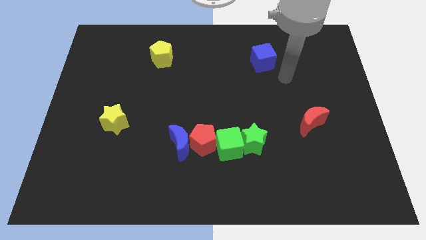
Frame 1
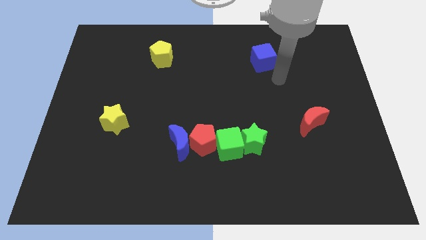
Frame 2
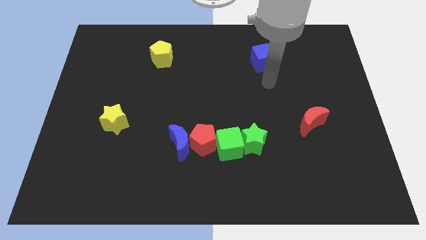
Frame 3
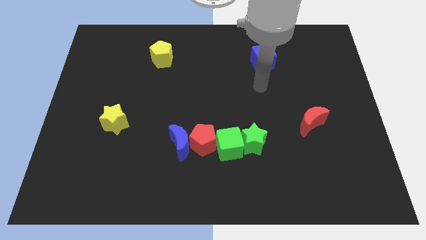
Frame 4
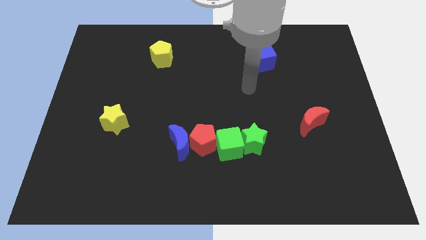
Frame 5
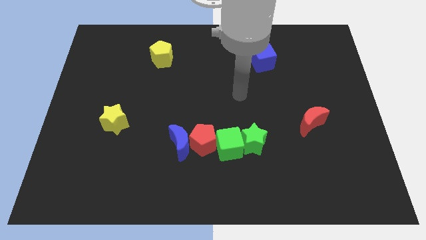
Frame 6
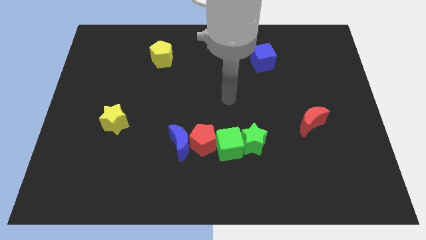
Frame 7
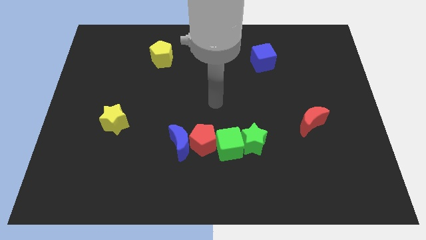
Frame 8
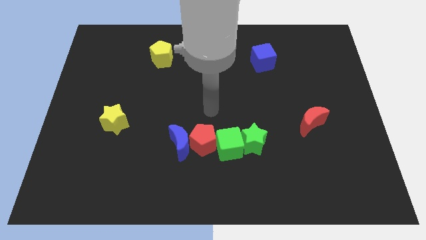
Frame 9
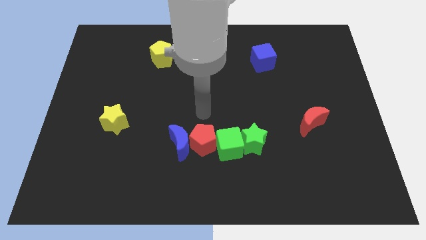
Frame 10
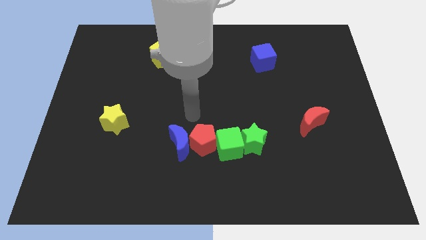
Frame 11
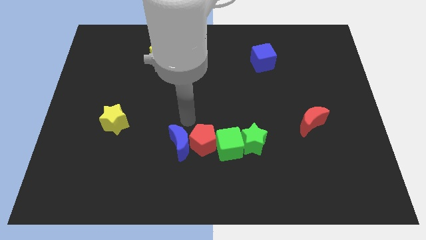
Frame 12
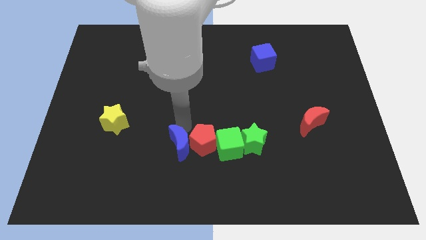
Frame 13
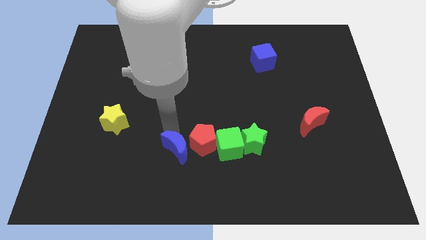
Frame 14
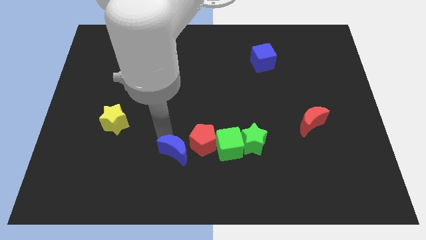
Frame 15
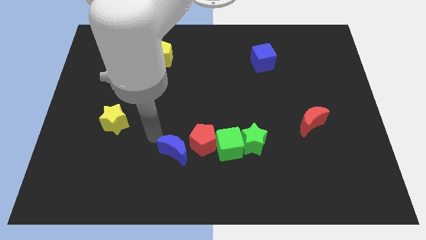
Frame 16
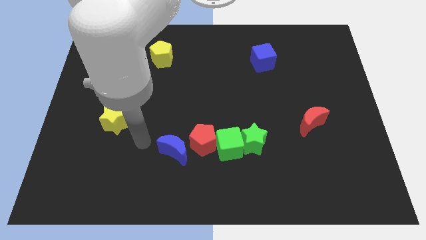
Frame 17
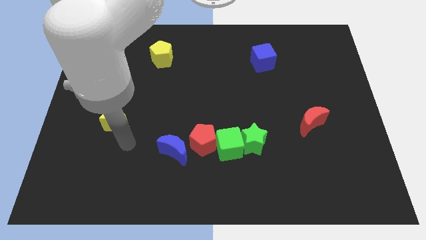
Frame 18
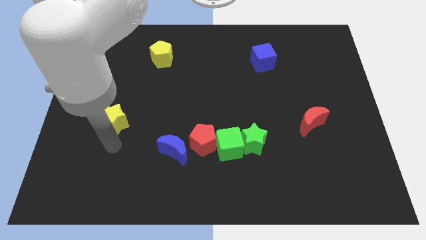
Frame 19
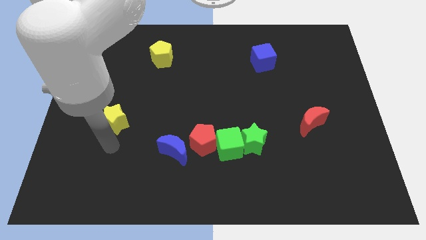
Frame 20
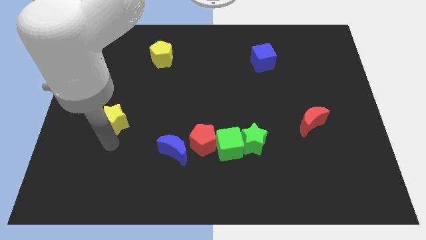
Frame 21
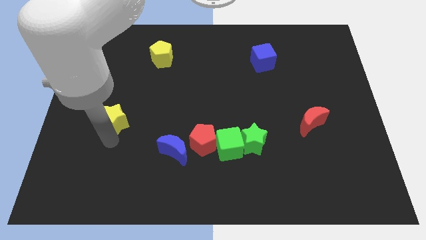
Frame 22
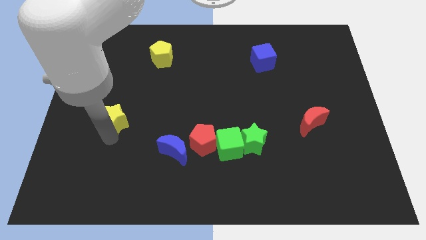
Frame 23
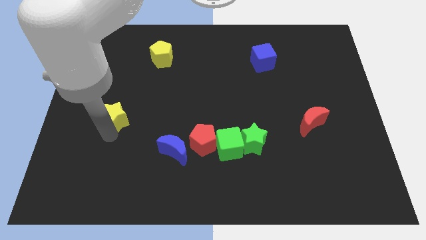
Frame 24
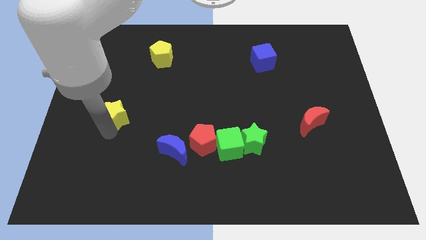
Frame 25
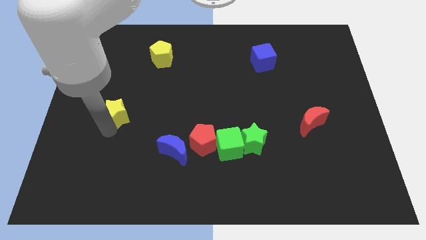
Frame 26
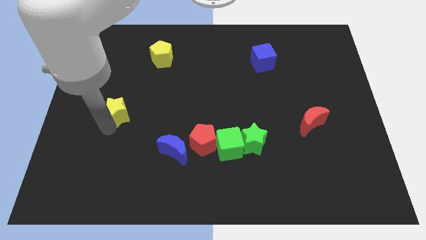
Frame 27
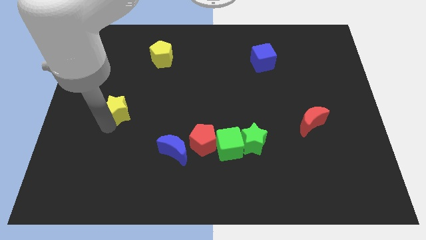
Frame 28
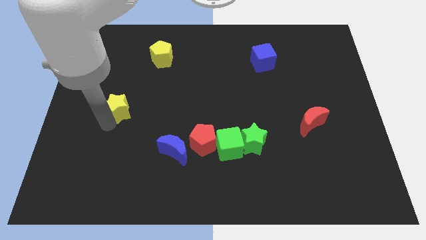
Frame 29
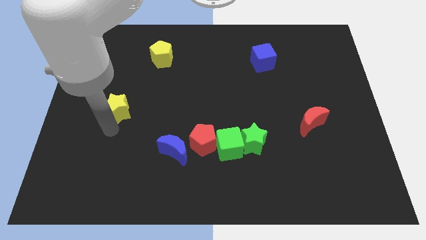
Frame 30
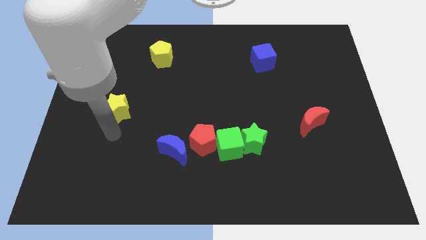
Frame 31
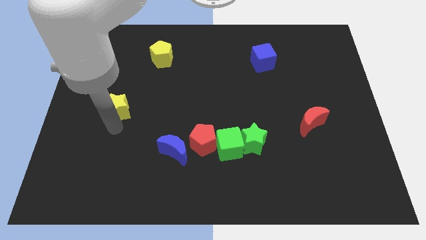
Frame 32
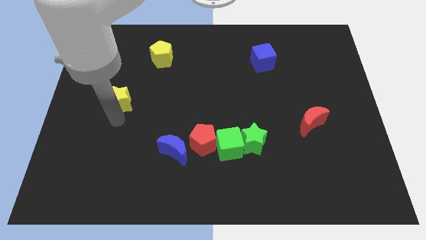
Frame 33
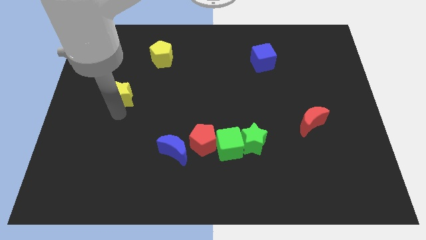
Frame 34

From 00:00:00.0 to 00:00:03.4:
slightly slide the yellow star upwards

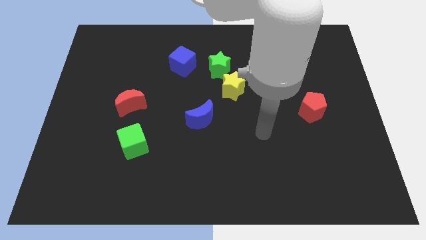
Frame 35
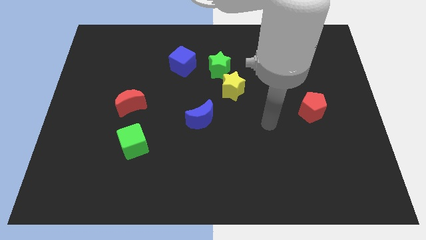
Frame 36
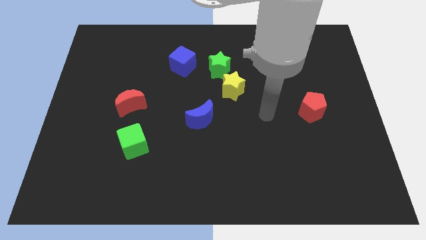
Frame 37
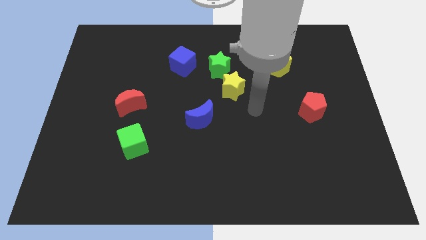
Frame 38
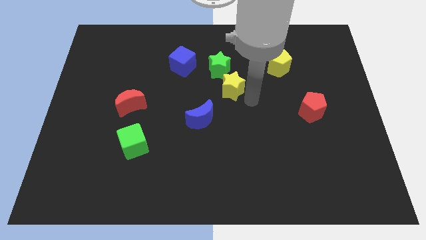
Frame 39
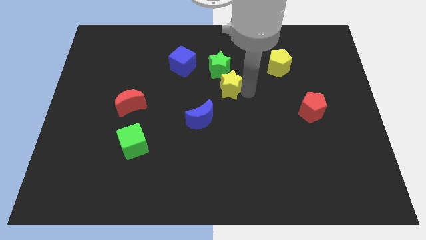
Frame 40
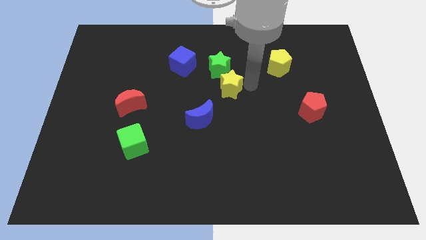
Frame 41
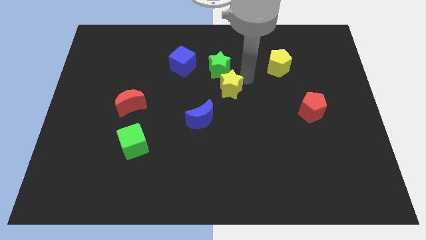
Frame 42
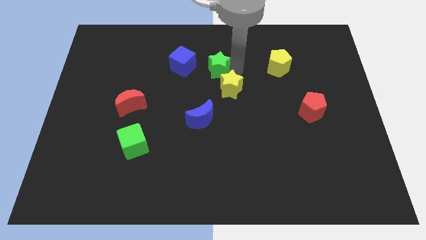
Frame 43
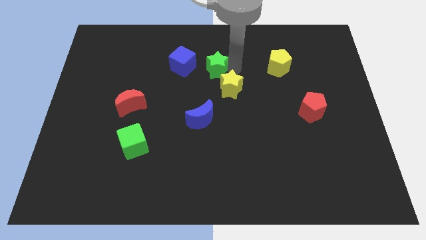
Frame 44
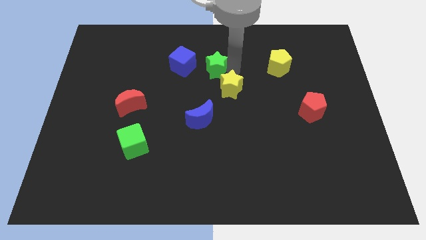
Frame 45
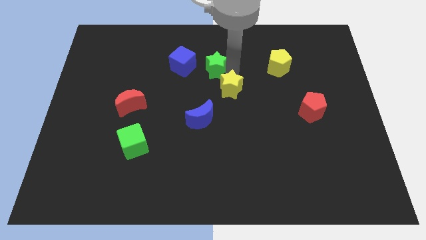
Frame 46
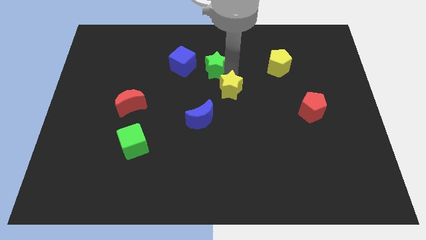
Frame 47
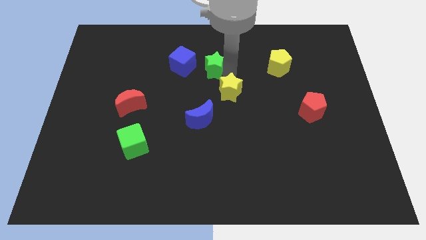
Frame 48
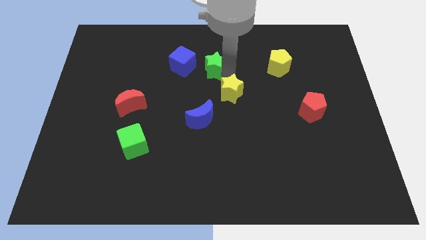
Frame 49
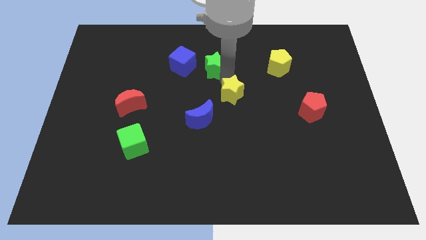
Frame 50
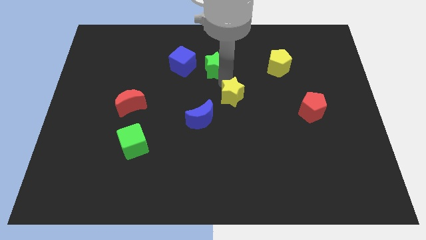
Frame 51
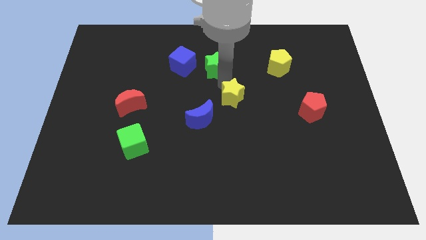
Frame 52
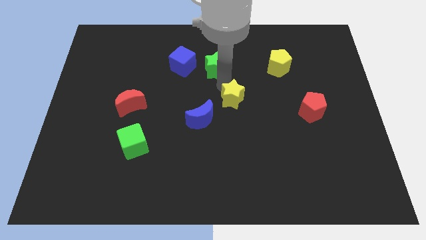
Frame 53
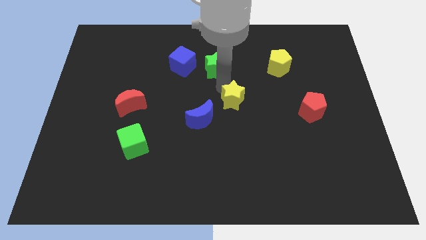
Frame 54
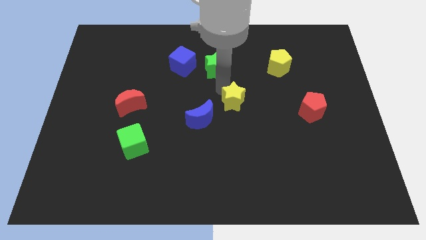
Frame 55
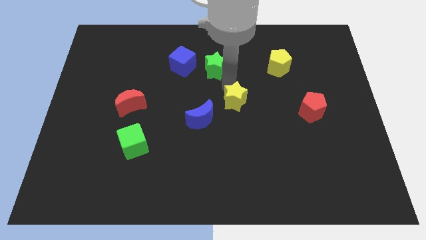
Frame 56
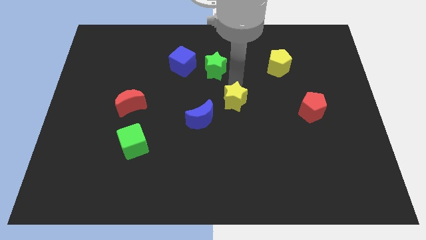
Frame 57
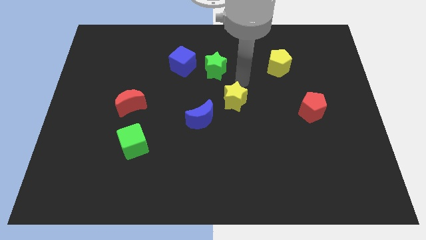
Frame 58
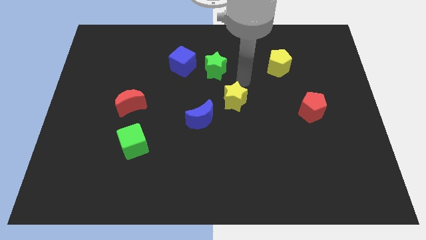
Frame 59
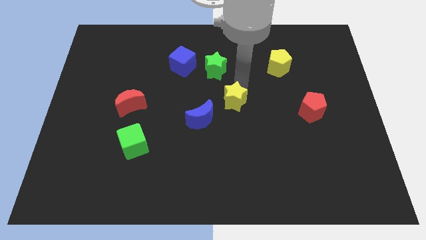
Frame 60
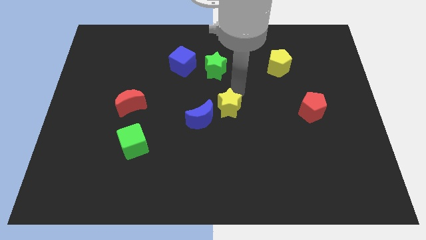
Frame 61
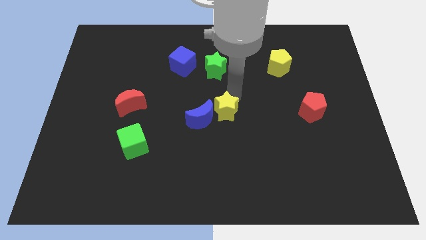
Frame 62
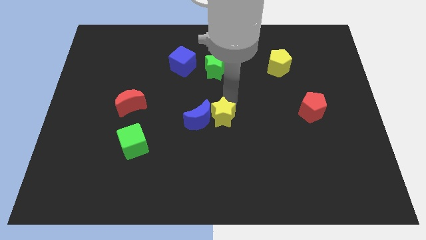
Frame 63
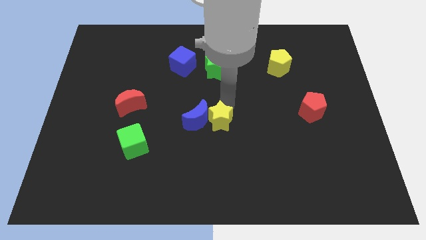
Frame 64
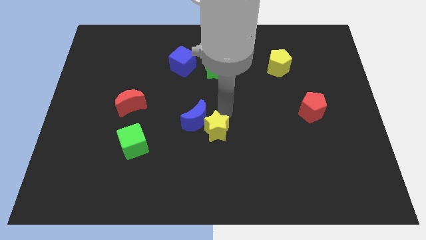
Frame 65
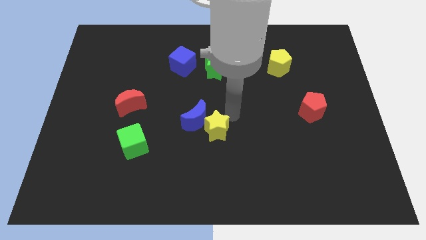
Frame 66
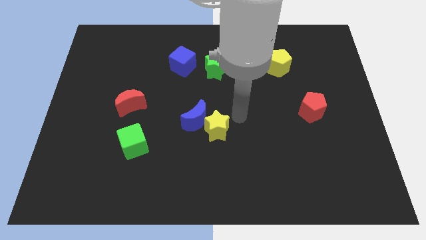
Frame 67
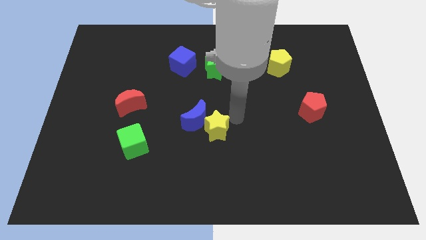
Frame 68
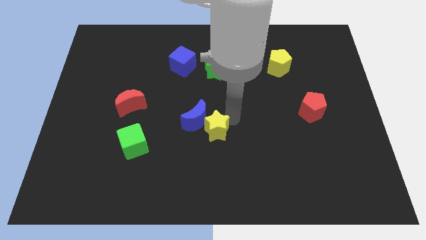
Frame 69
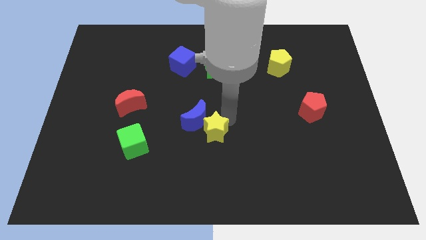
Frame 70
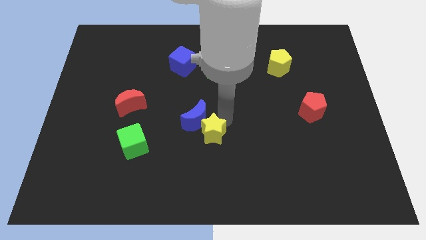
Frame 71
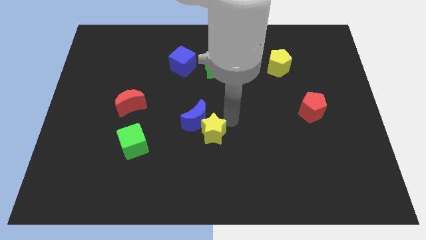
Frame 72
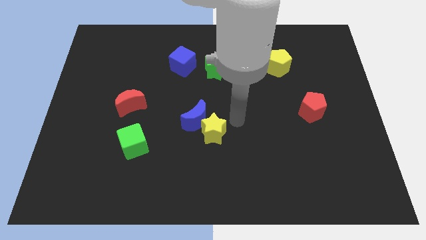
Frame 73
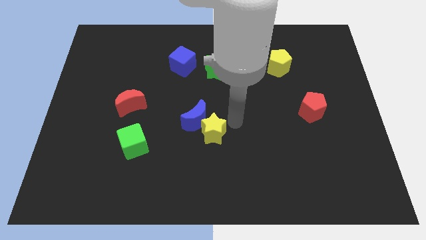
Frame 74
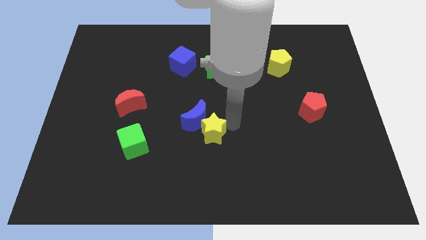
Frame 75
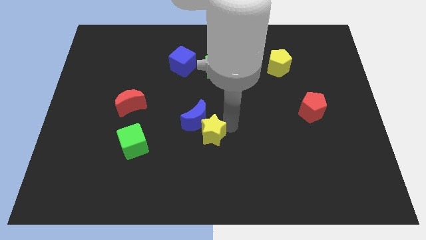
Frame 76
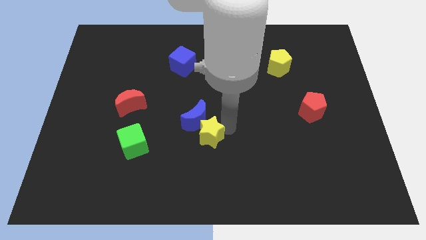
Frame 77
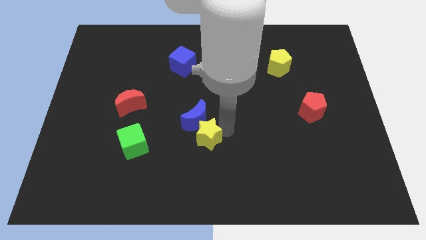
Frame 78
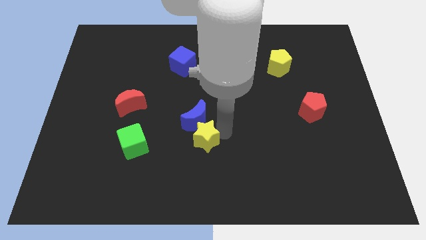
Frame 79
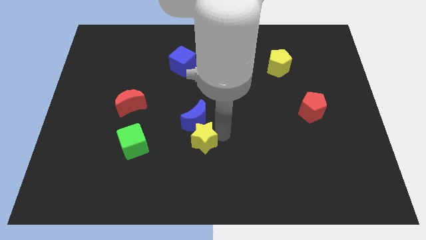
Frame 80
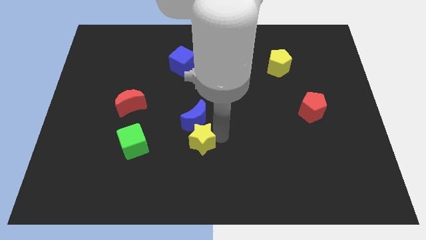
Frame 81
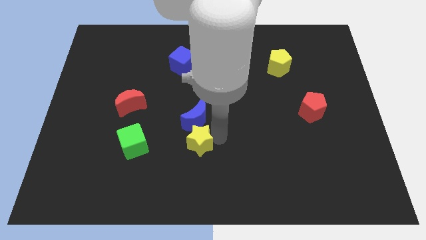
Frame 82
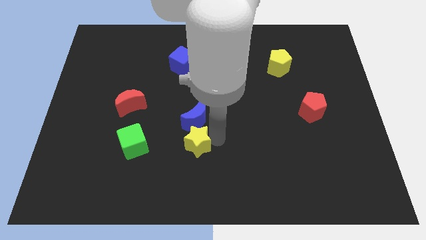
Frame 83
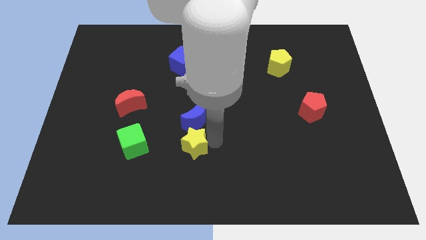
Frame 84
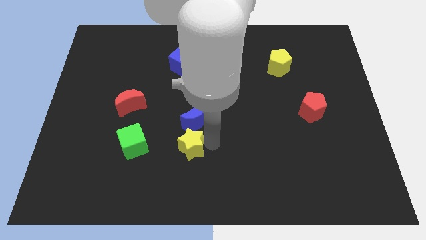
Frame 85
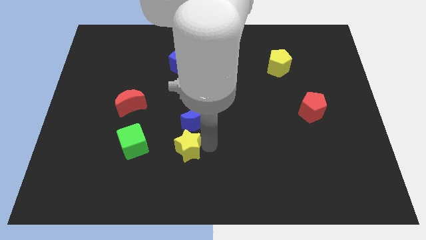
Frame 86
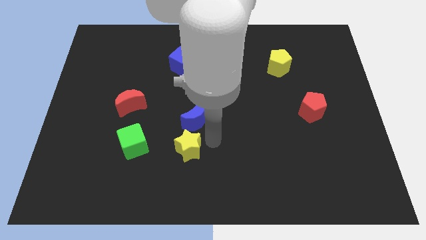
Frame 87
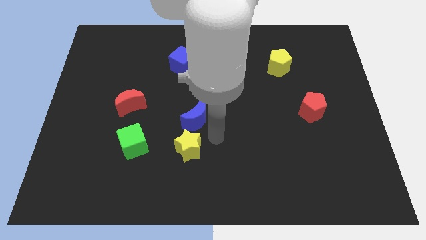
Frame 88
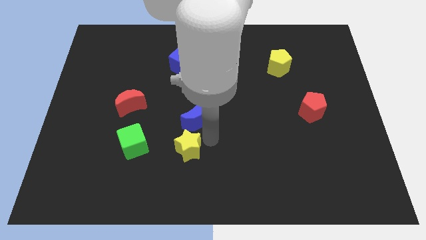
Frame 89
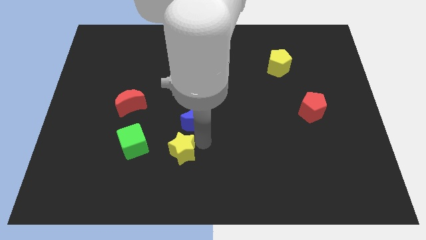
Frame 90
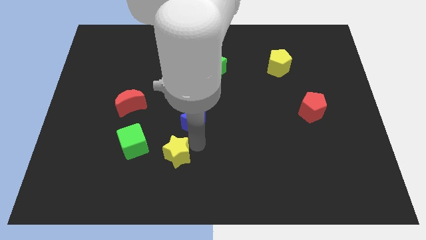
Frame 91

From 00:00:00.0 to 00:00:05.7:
move the yellow star downwards and then left
